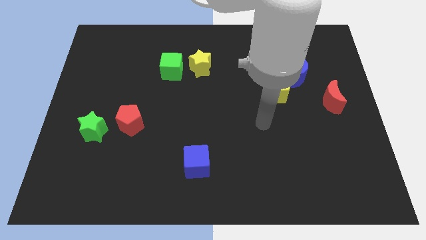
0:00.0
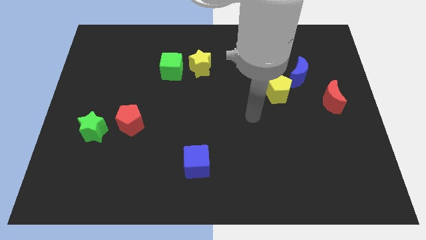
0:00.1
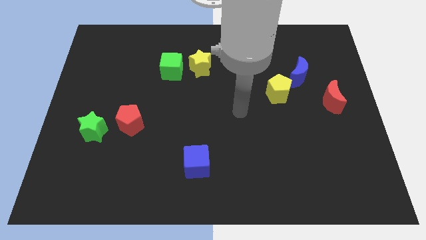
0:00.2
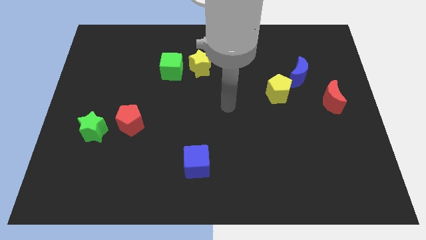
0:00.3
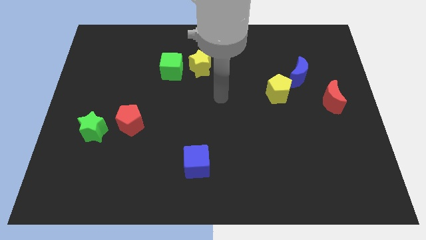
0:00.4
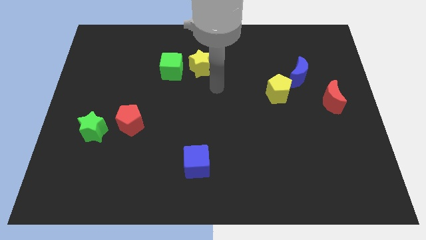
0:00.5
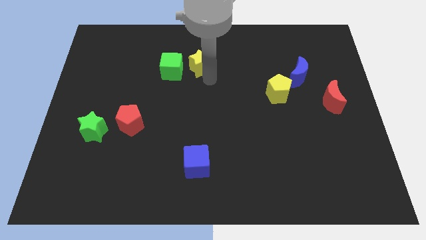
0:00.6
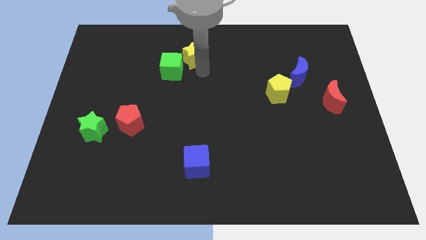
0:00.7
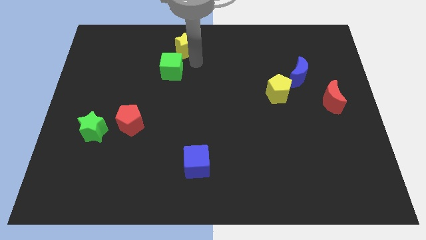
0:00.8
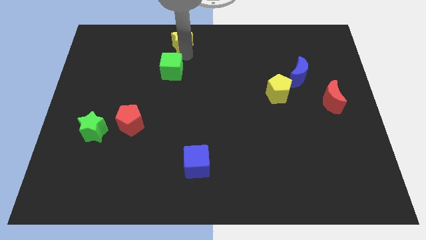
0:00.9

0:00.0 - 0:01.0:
separate the green cube from the yellow star

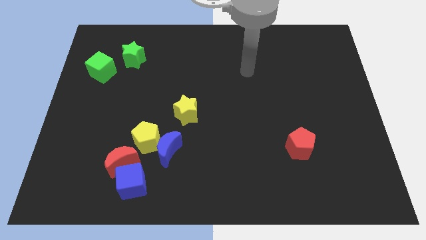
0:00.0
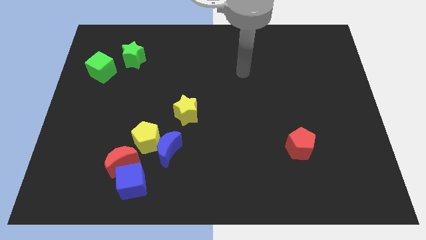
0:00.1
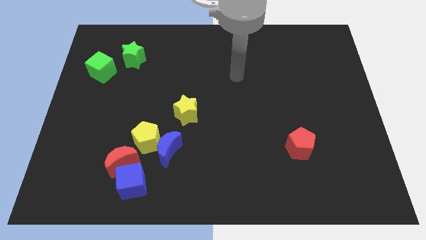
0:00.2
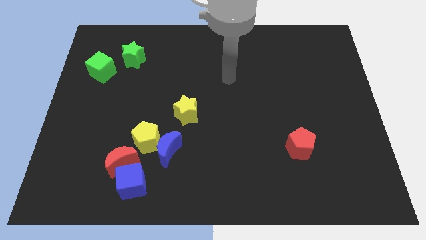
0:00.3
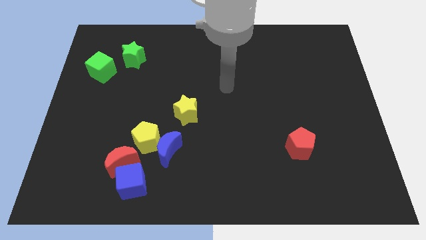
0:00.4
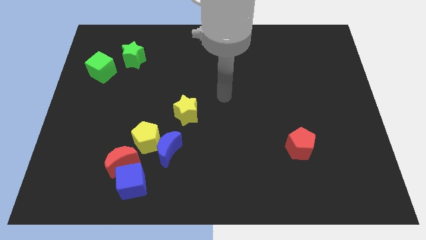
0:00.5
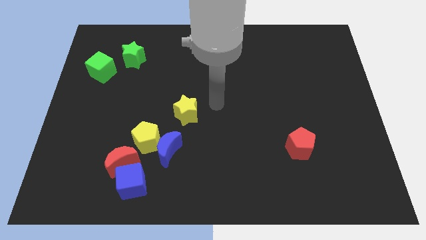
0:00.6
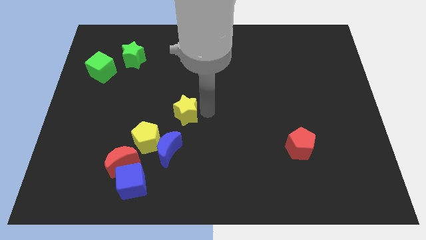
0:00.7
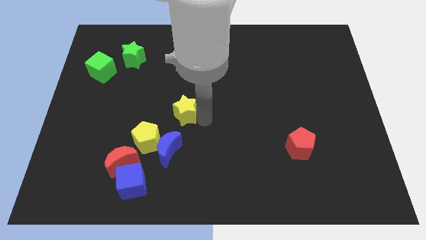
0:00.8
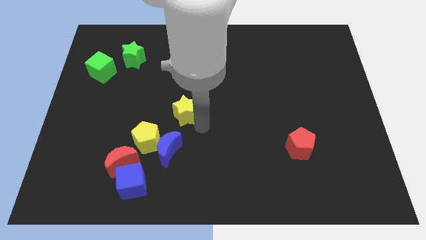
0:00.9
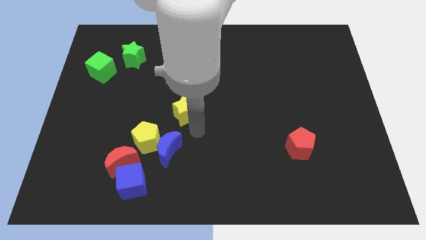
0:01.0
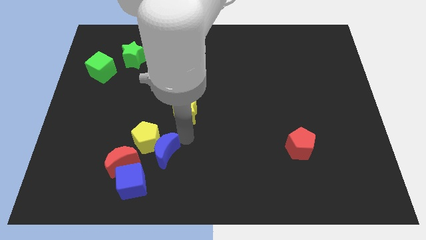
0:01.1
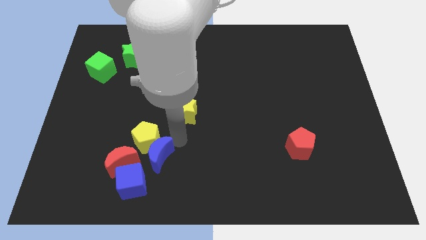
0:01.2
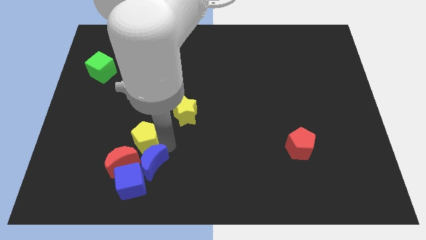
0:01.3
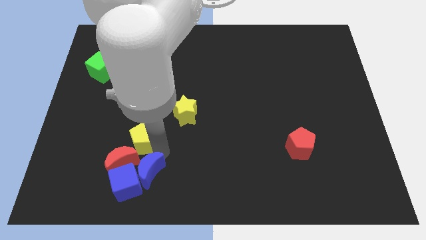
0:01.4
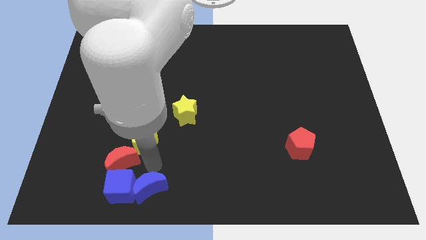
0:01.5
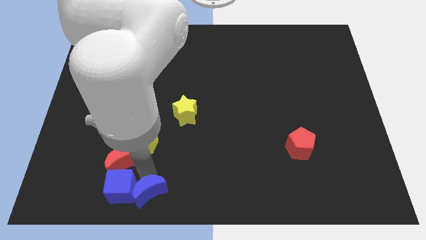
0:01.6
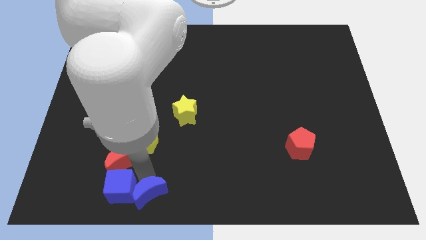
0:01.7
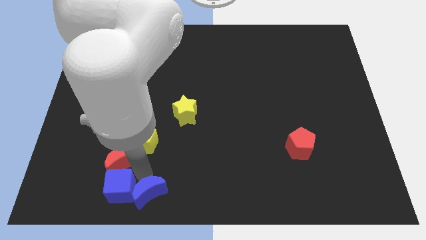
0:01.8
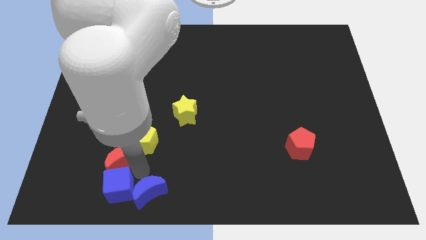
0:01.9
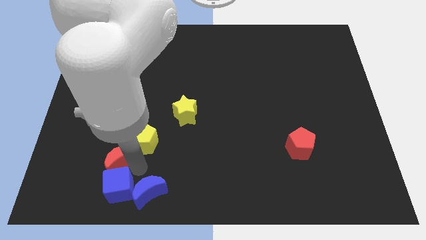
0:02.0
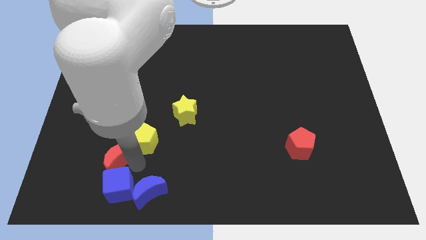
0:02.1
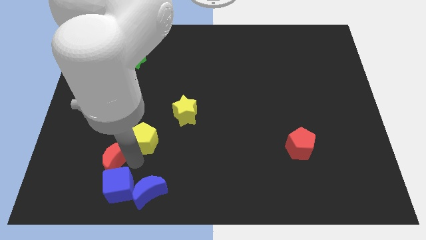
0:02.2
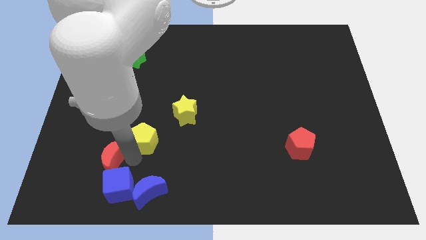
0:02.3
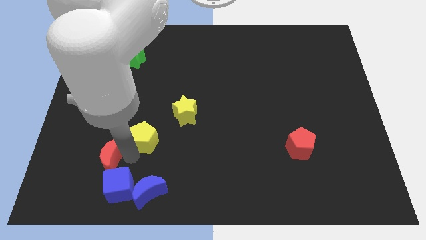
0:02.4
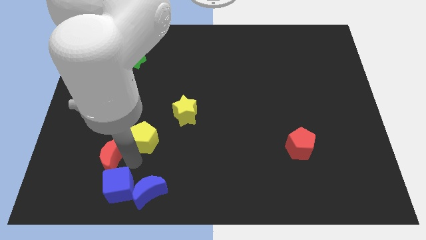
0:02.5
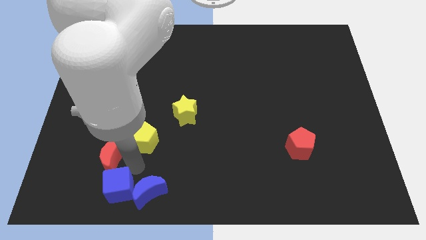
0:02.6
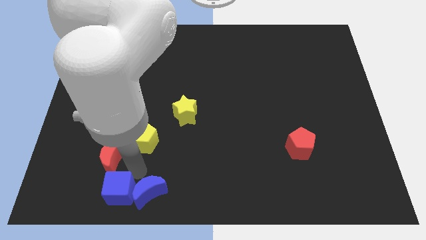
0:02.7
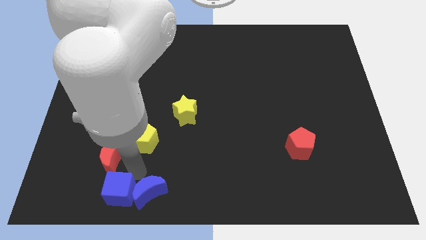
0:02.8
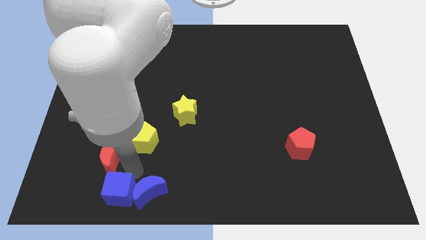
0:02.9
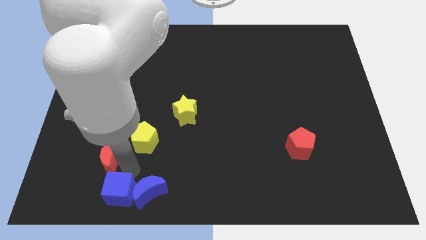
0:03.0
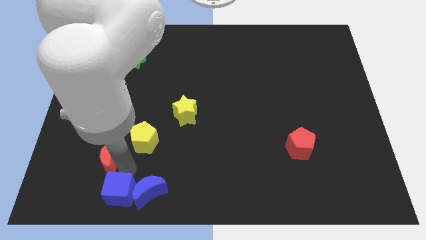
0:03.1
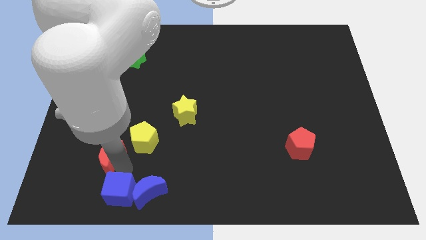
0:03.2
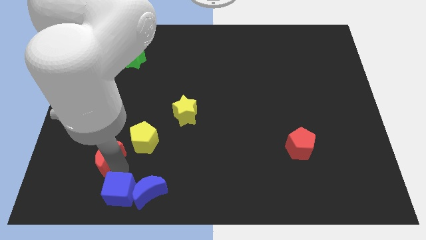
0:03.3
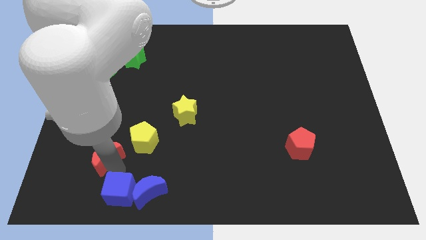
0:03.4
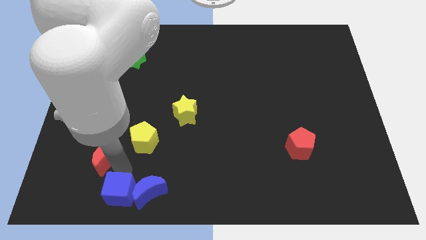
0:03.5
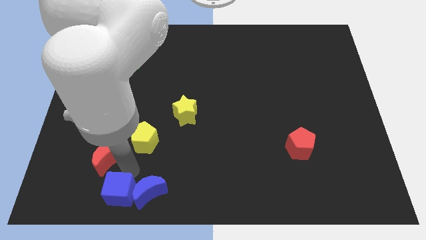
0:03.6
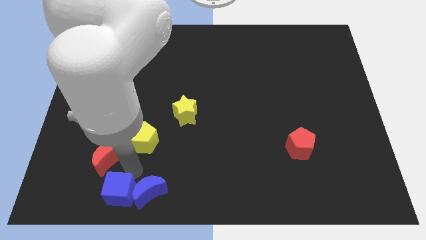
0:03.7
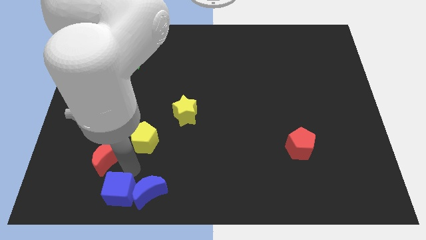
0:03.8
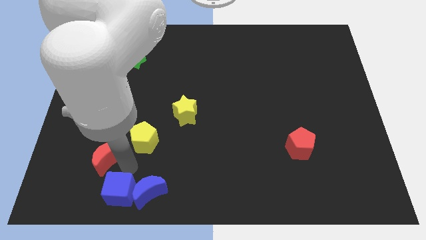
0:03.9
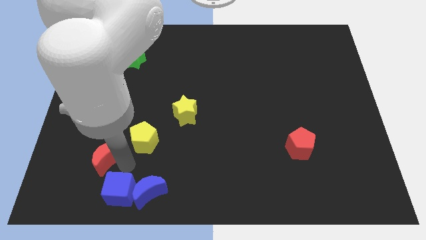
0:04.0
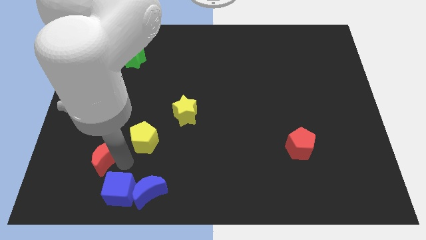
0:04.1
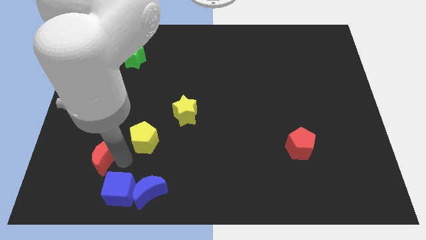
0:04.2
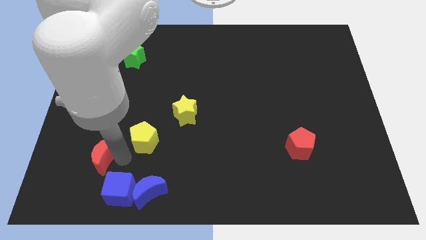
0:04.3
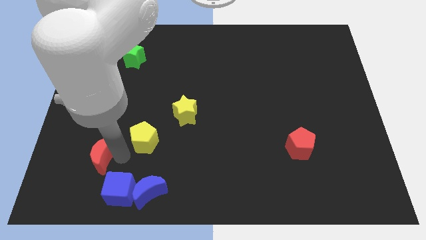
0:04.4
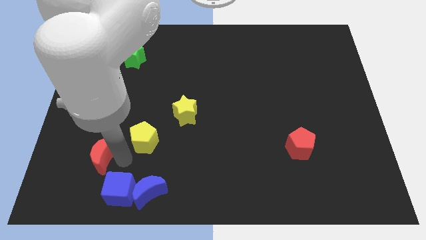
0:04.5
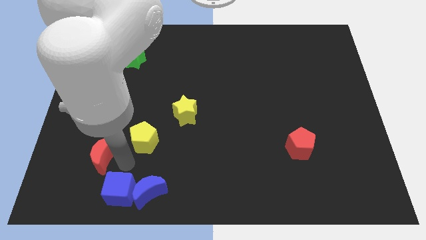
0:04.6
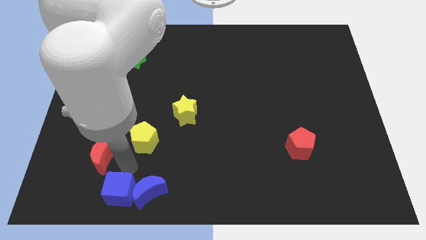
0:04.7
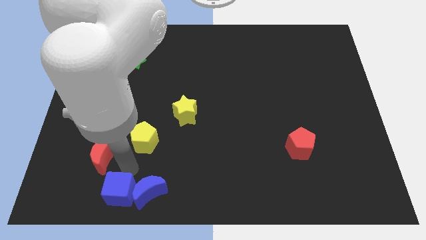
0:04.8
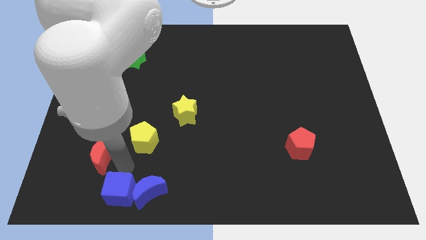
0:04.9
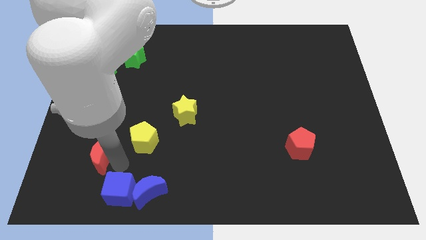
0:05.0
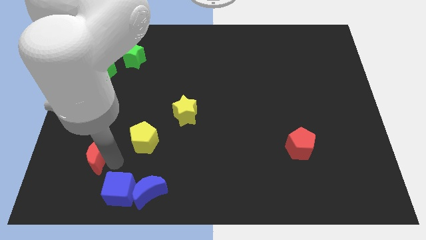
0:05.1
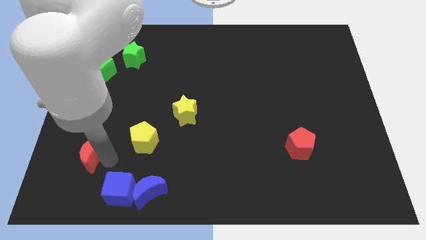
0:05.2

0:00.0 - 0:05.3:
separate the red moon from the blue cube, yellow pentagon, and blue moon

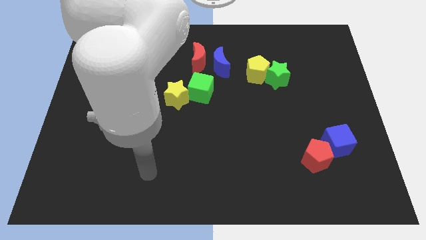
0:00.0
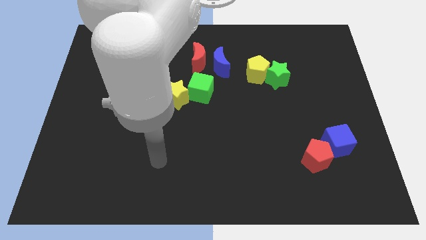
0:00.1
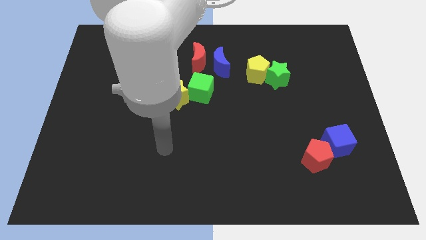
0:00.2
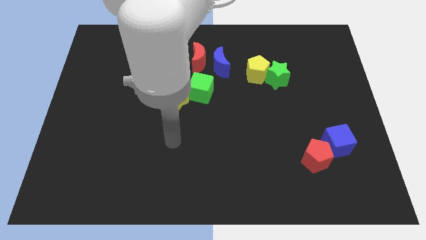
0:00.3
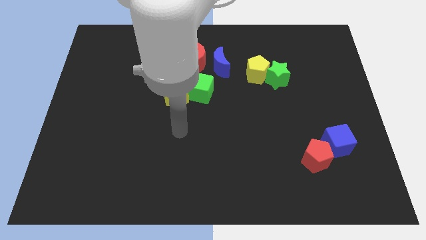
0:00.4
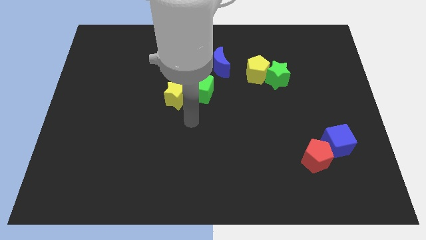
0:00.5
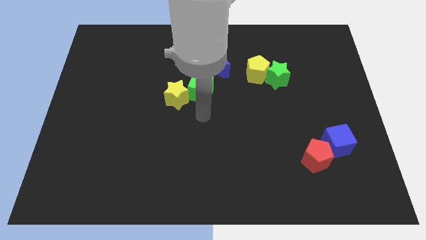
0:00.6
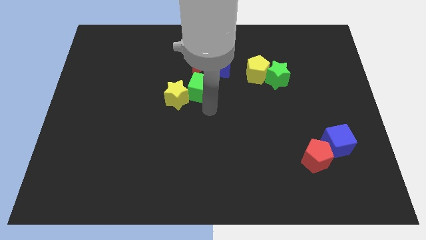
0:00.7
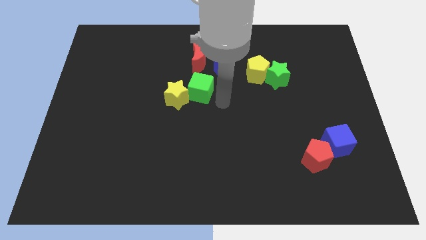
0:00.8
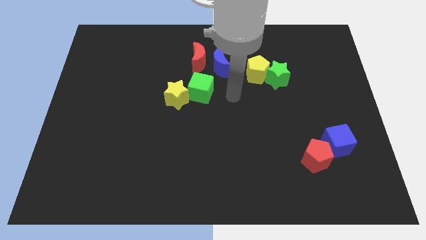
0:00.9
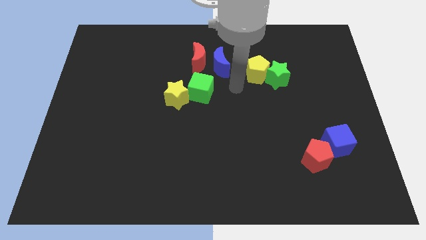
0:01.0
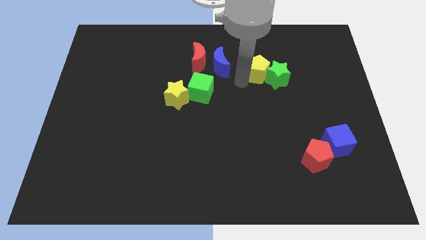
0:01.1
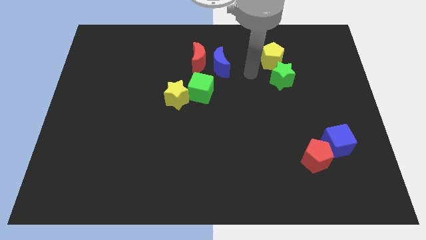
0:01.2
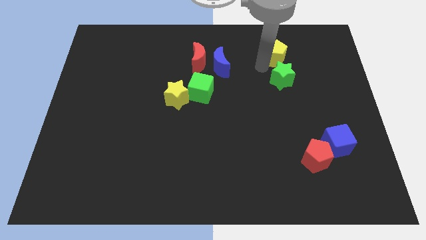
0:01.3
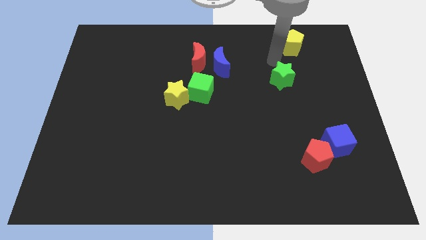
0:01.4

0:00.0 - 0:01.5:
move the green star away from the yellow pentagon

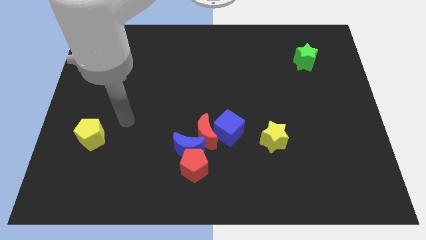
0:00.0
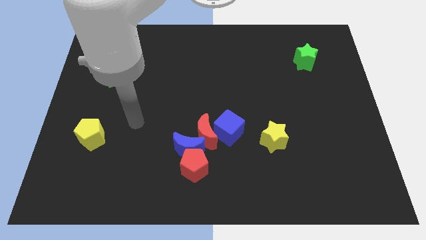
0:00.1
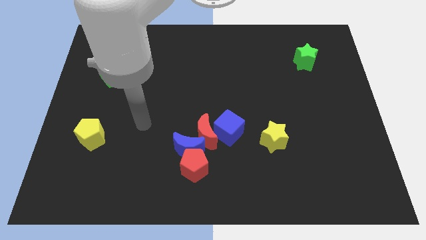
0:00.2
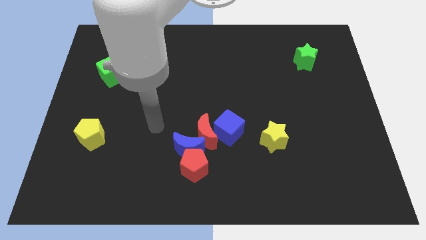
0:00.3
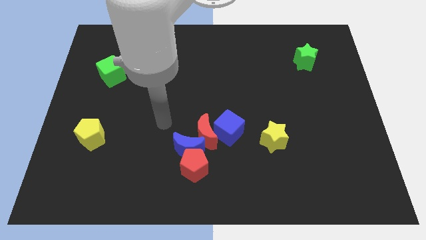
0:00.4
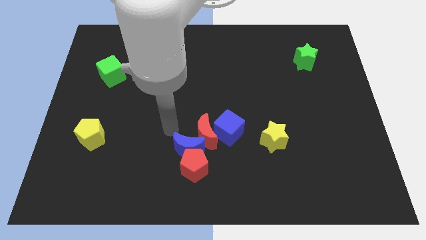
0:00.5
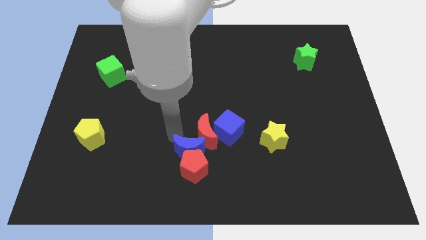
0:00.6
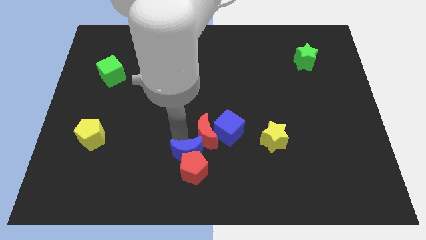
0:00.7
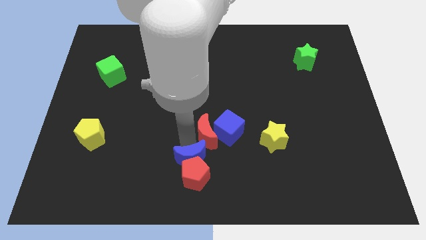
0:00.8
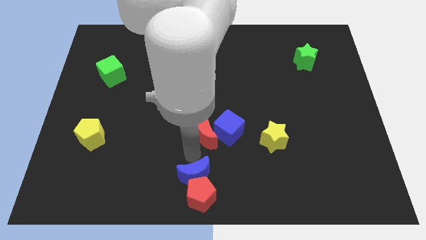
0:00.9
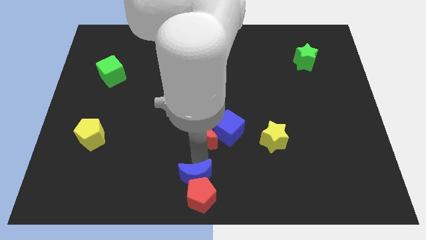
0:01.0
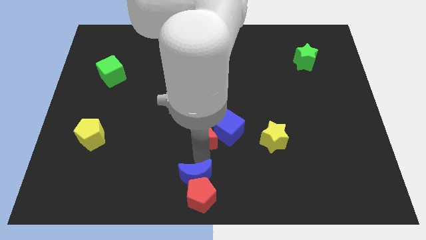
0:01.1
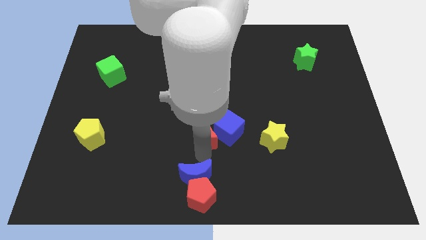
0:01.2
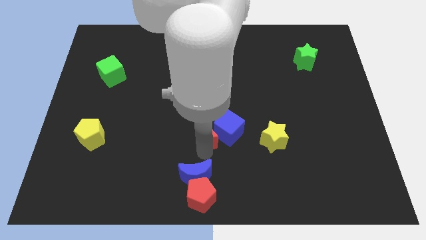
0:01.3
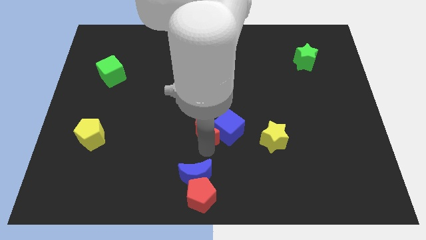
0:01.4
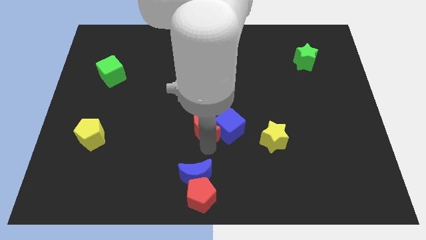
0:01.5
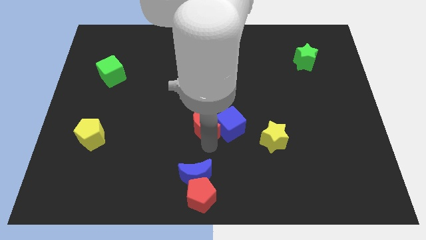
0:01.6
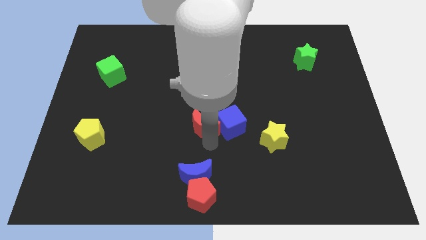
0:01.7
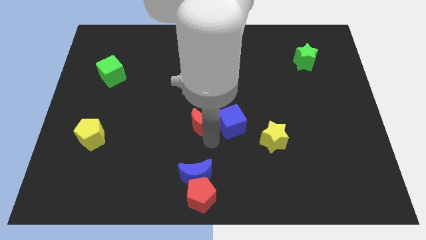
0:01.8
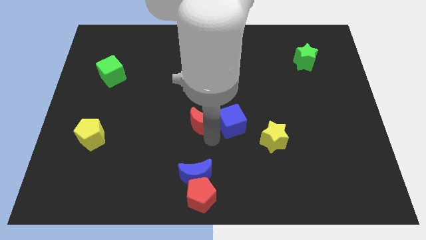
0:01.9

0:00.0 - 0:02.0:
separate the red moon from the group of blocks
